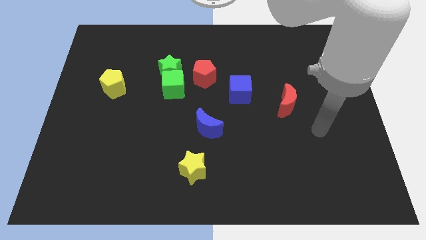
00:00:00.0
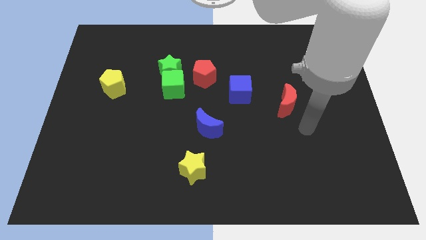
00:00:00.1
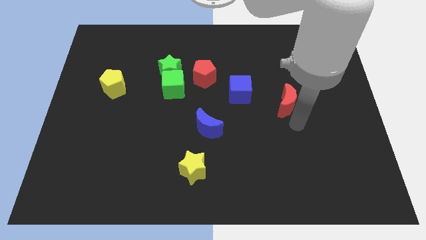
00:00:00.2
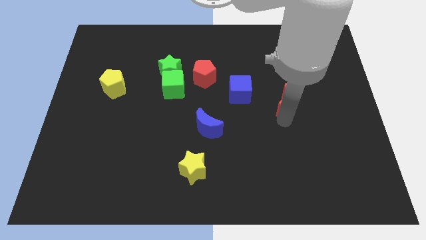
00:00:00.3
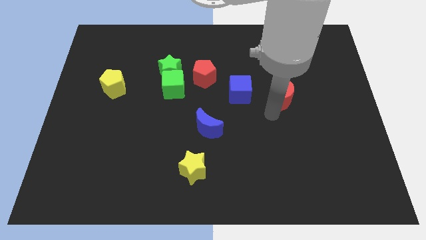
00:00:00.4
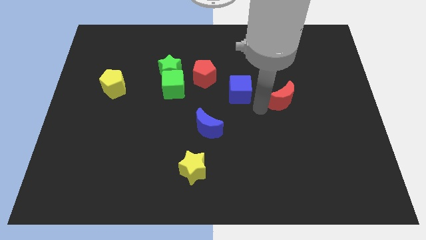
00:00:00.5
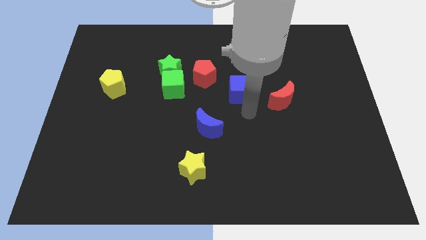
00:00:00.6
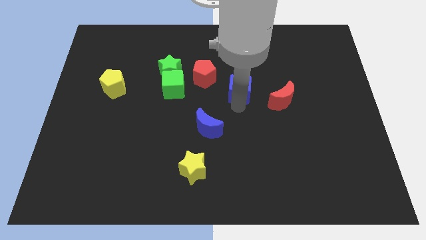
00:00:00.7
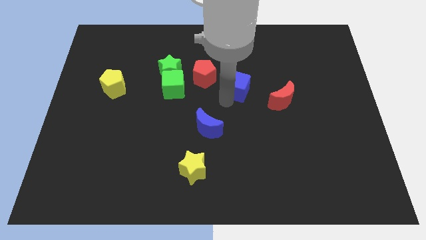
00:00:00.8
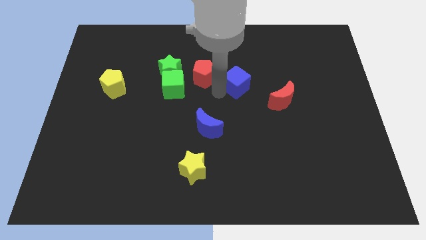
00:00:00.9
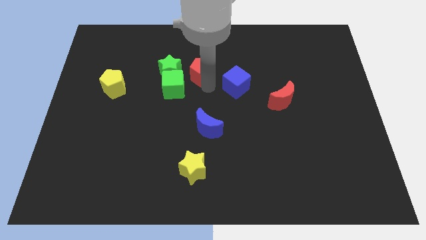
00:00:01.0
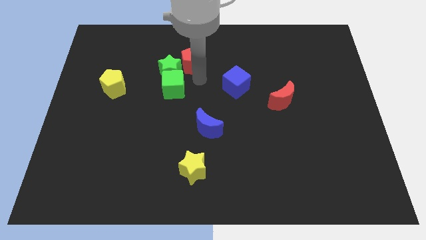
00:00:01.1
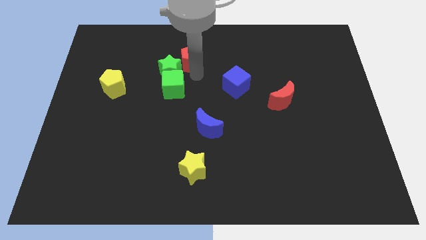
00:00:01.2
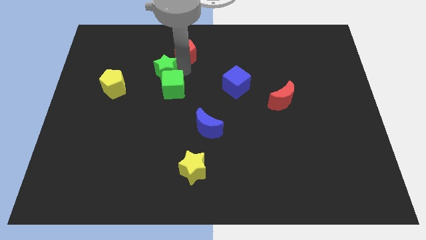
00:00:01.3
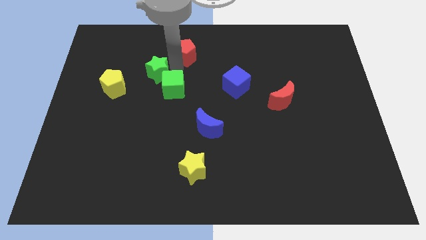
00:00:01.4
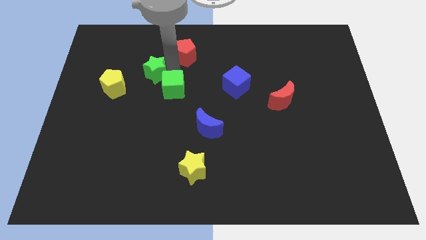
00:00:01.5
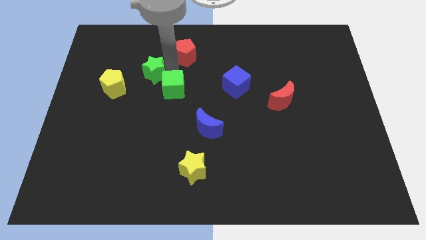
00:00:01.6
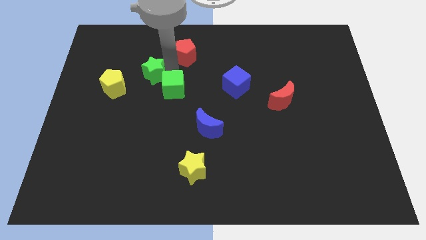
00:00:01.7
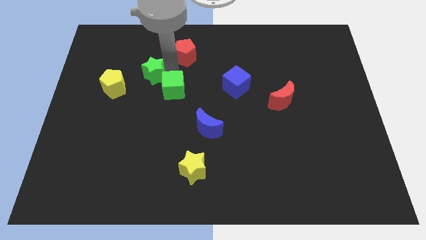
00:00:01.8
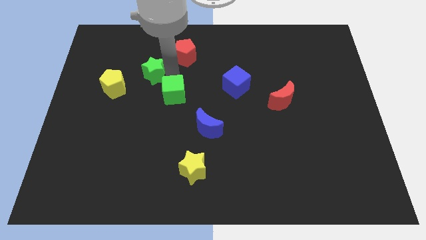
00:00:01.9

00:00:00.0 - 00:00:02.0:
move the green cube away from the green star and red pentagon

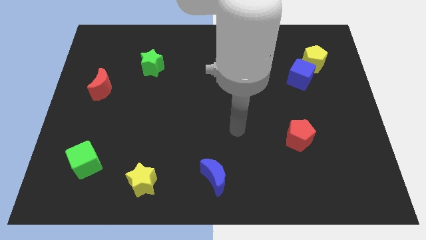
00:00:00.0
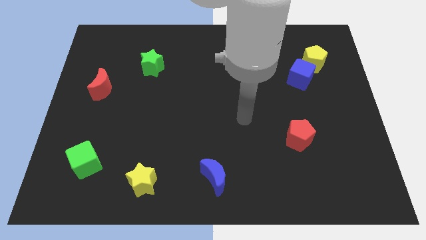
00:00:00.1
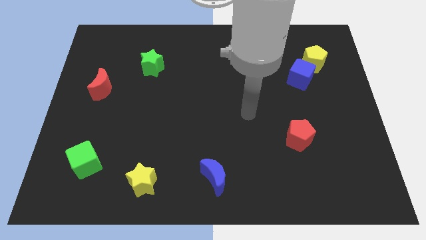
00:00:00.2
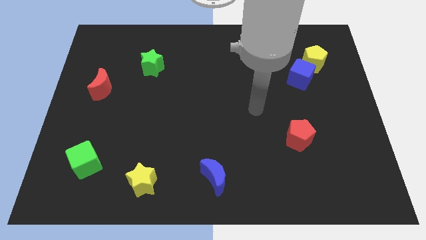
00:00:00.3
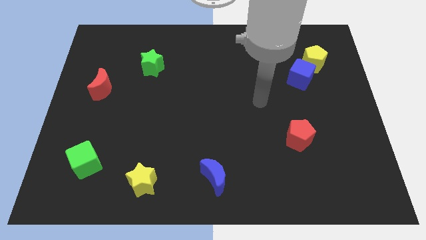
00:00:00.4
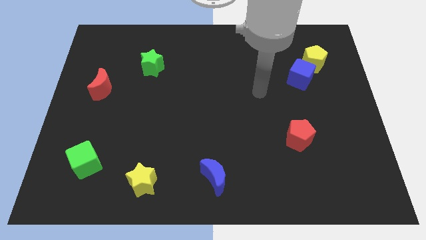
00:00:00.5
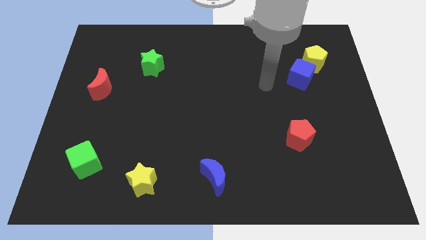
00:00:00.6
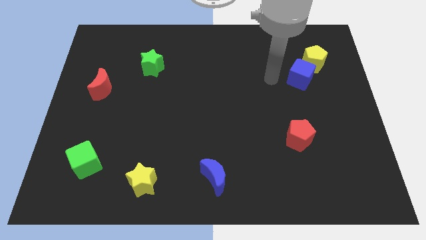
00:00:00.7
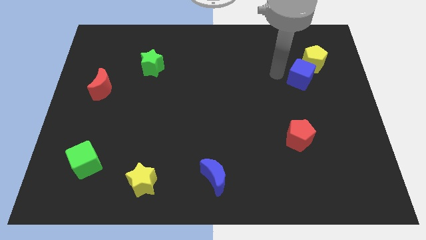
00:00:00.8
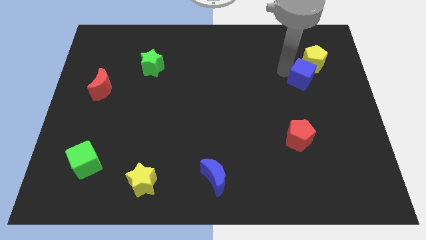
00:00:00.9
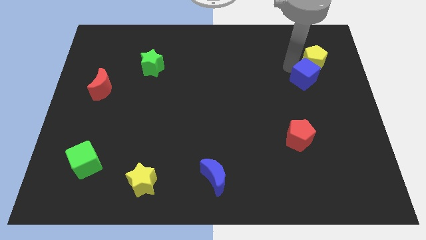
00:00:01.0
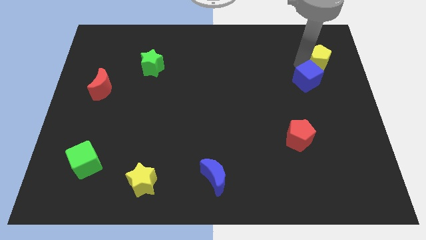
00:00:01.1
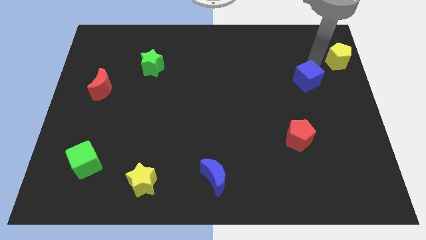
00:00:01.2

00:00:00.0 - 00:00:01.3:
separate the blue cube from the yellow pentagon

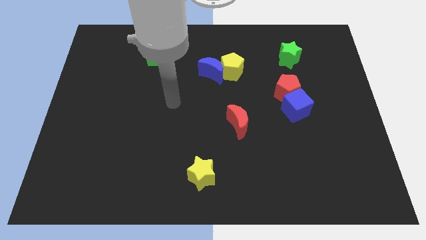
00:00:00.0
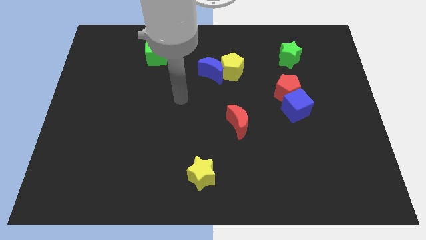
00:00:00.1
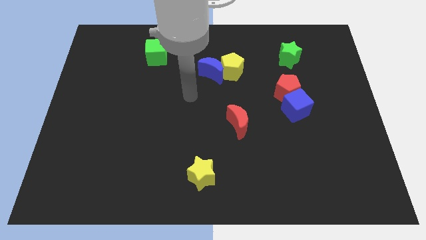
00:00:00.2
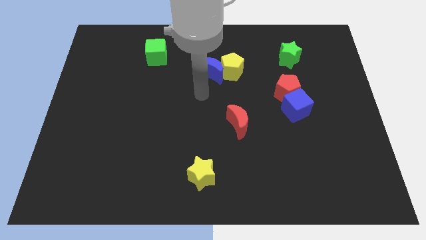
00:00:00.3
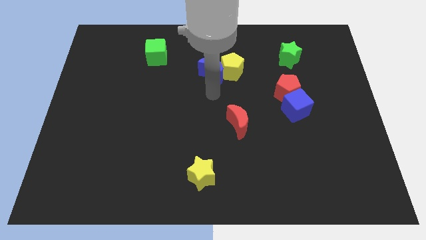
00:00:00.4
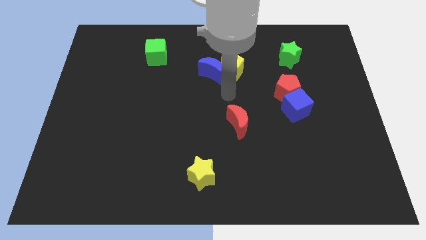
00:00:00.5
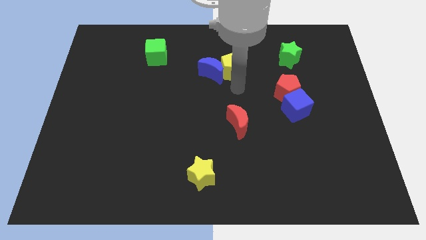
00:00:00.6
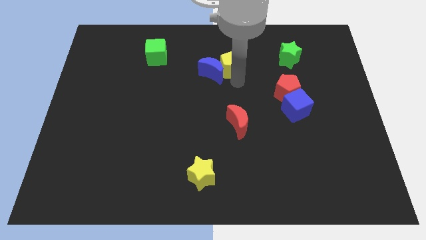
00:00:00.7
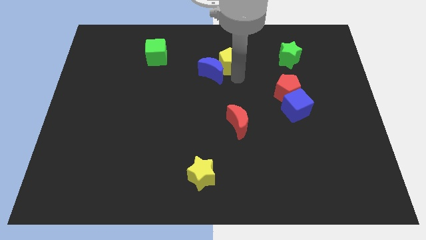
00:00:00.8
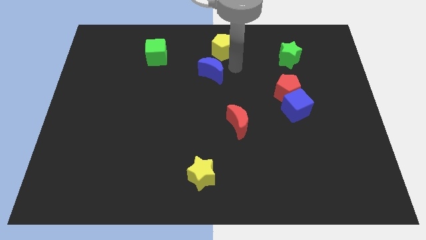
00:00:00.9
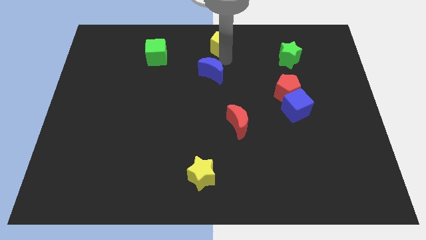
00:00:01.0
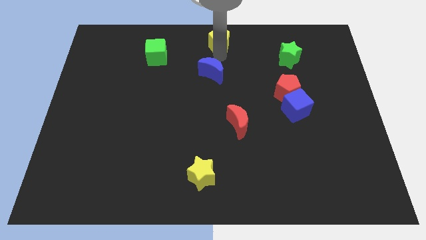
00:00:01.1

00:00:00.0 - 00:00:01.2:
pull the blue moon apart from the yellow pentagon

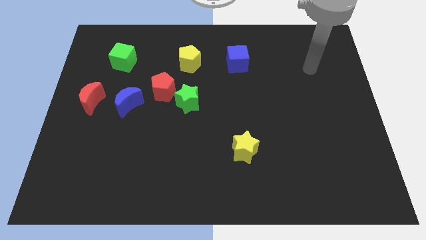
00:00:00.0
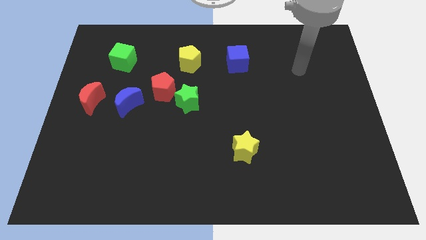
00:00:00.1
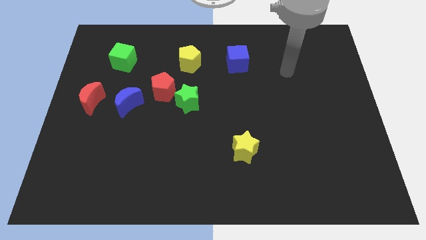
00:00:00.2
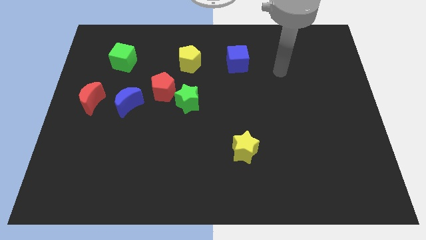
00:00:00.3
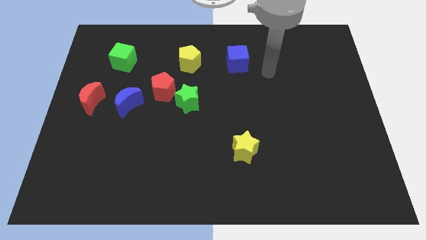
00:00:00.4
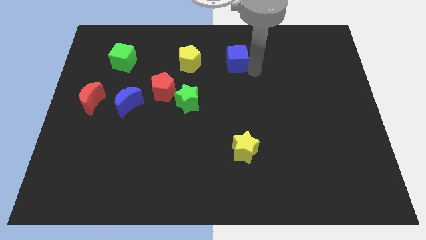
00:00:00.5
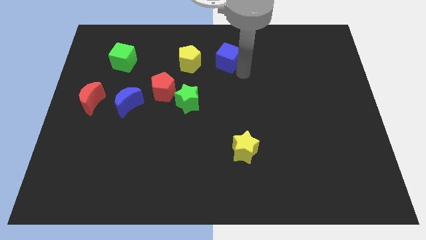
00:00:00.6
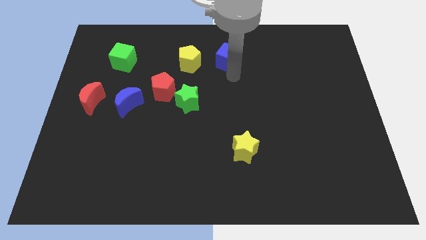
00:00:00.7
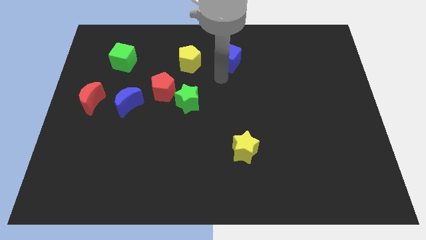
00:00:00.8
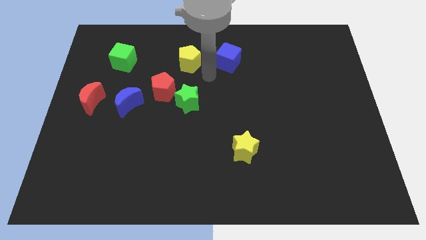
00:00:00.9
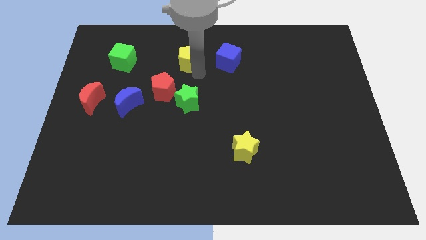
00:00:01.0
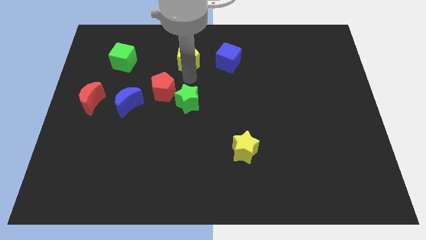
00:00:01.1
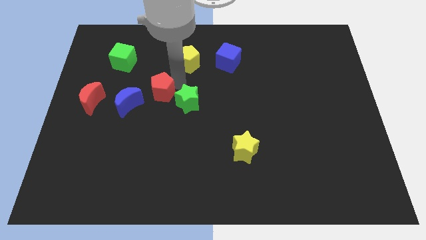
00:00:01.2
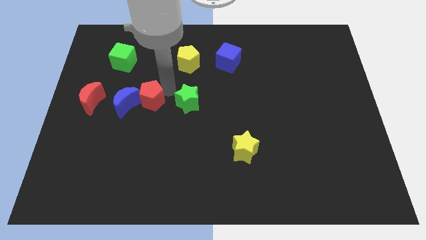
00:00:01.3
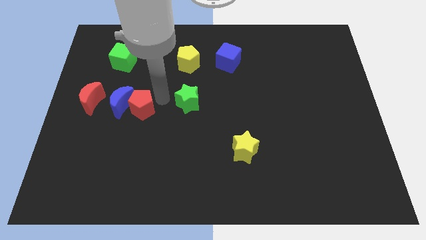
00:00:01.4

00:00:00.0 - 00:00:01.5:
pull the green star apart from the red pentagon

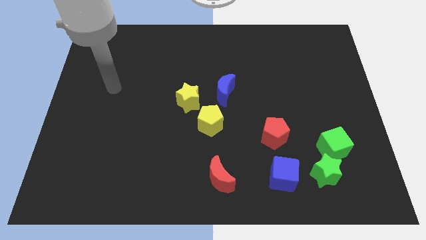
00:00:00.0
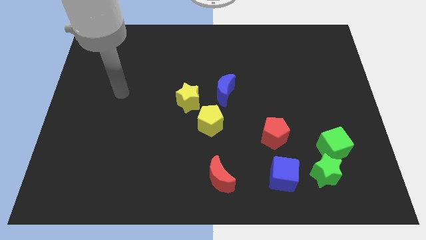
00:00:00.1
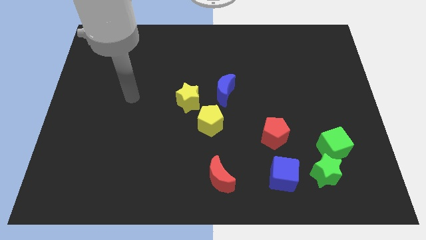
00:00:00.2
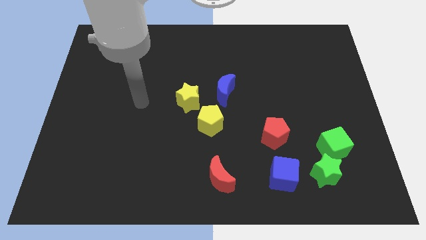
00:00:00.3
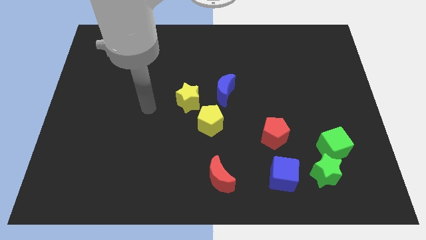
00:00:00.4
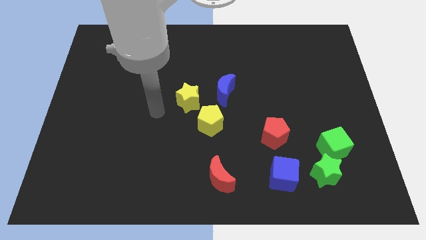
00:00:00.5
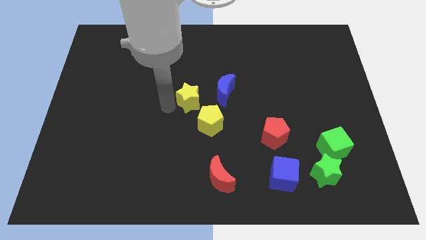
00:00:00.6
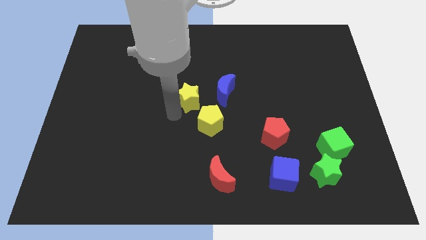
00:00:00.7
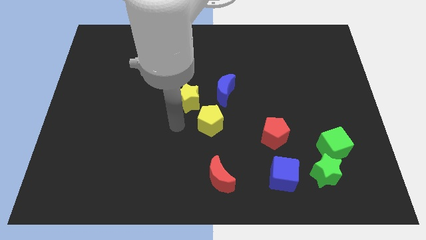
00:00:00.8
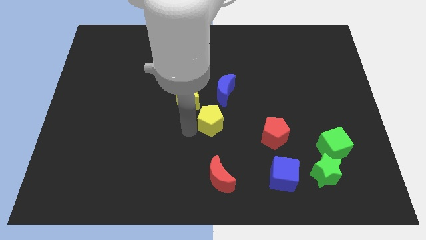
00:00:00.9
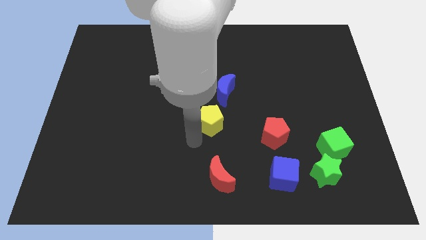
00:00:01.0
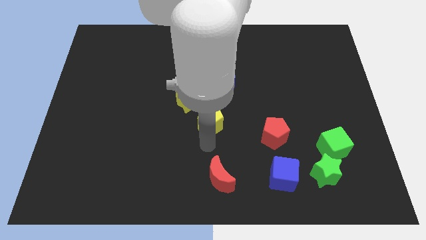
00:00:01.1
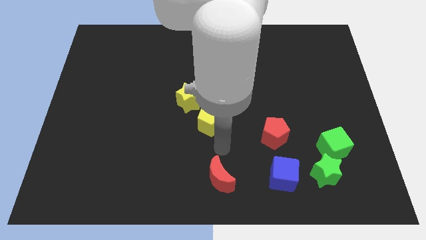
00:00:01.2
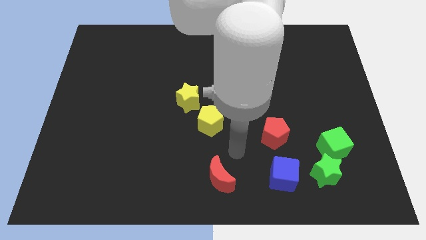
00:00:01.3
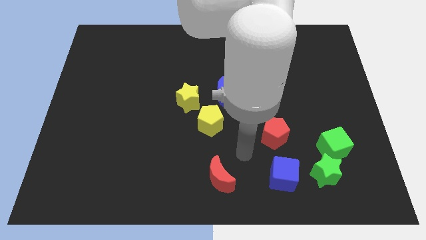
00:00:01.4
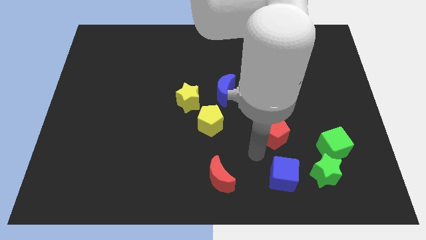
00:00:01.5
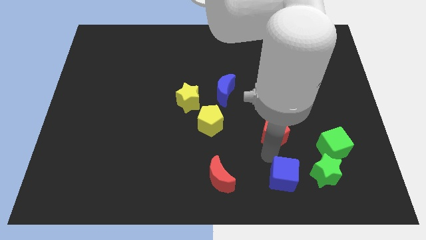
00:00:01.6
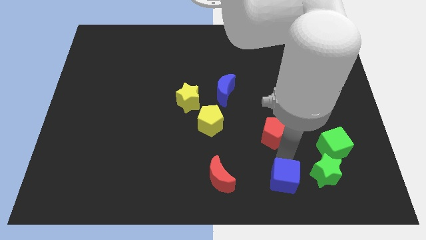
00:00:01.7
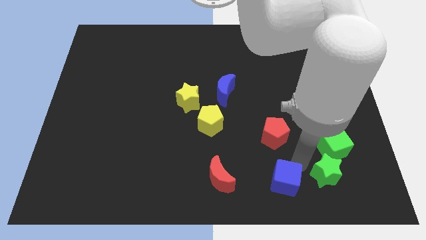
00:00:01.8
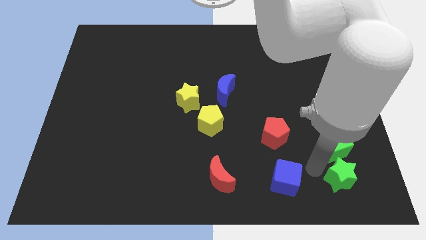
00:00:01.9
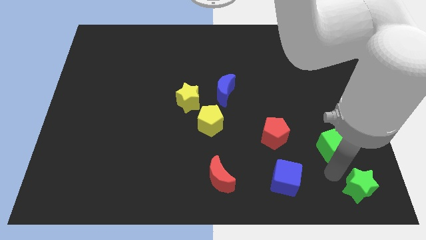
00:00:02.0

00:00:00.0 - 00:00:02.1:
separate the green cube from the green star

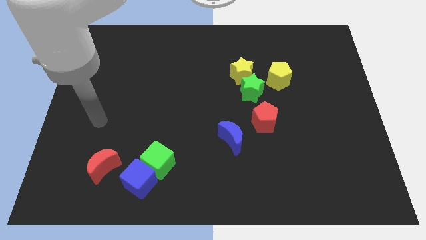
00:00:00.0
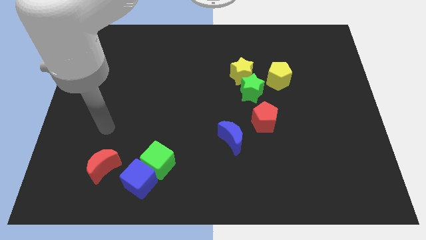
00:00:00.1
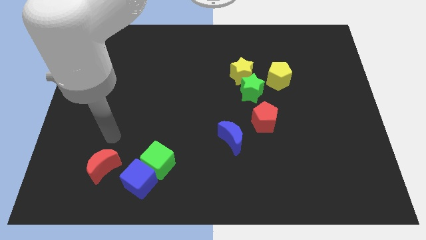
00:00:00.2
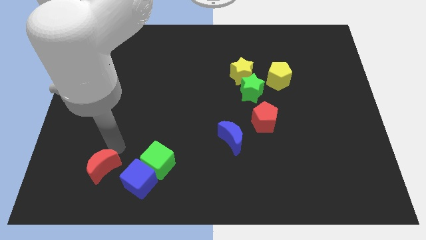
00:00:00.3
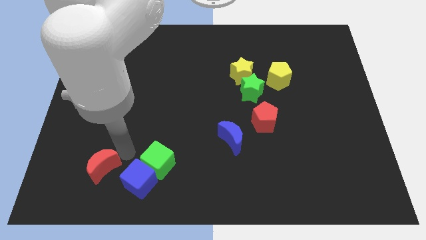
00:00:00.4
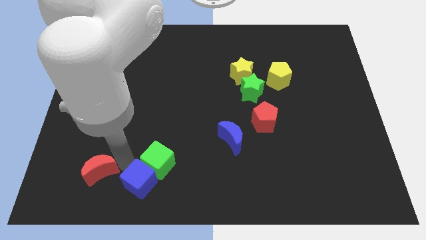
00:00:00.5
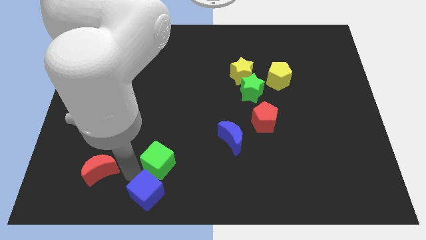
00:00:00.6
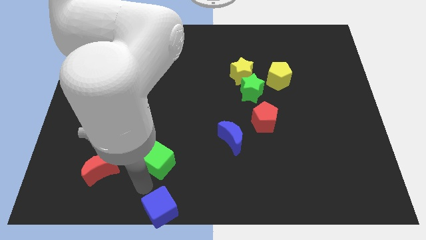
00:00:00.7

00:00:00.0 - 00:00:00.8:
separate the green cube from the blue cube

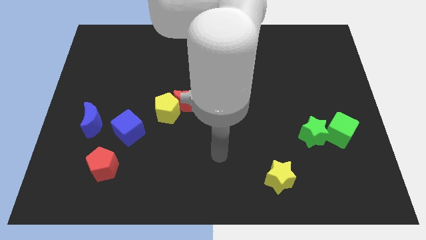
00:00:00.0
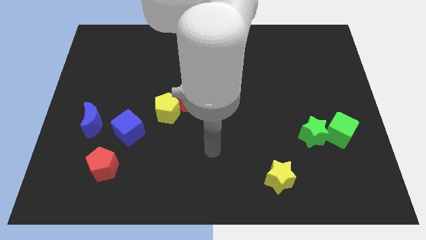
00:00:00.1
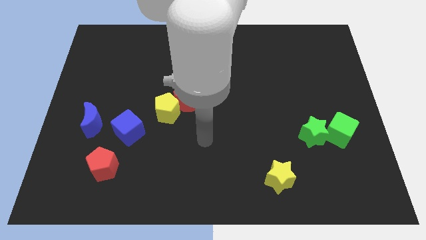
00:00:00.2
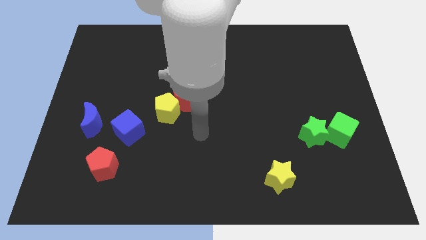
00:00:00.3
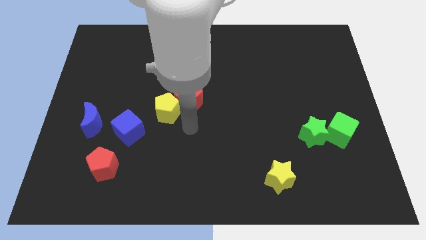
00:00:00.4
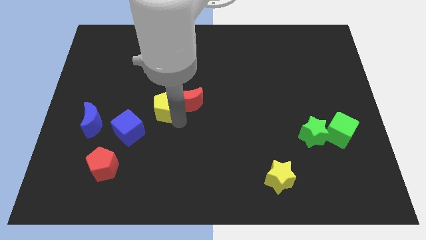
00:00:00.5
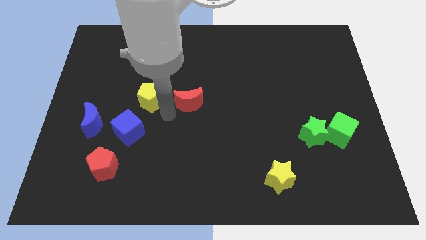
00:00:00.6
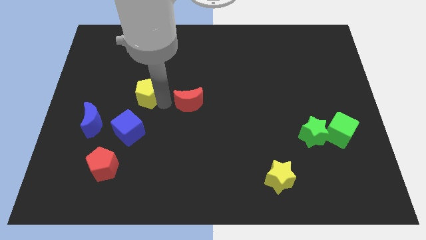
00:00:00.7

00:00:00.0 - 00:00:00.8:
separate the red moon from the yellow pentagon
